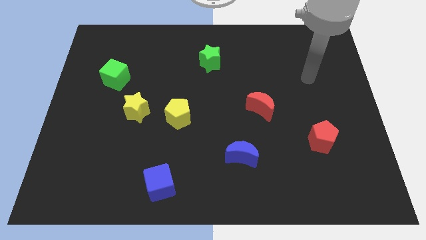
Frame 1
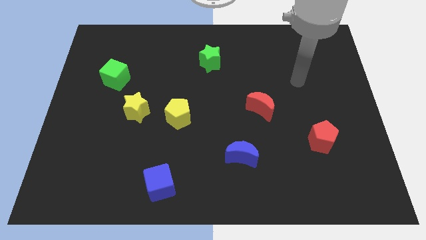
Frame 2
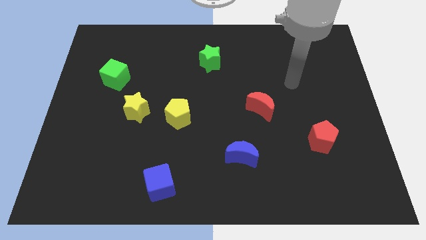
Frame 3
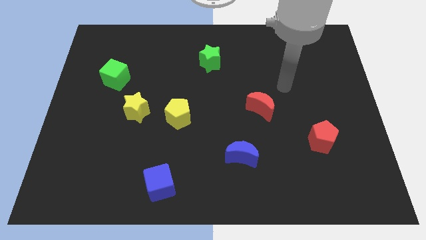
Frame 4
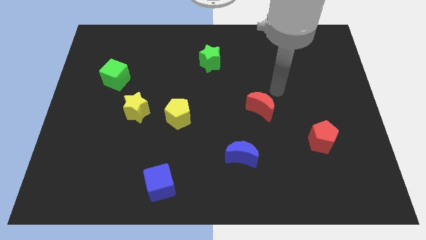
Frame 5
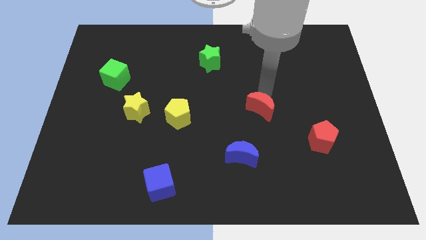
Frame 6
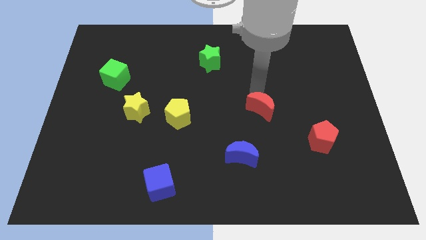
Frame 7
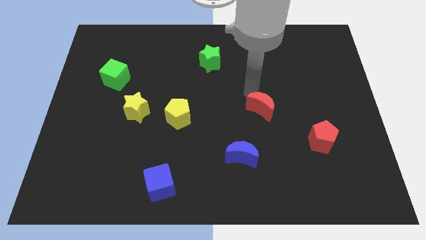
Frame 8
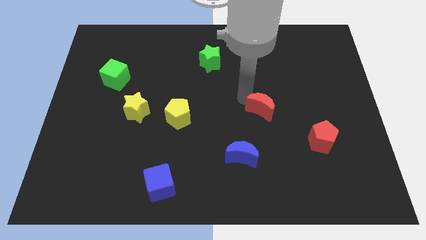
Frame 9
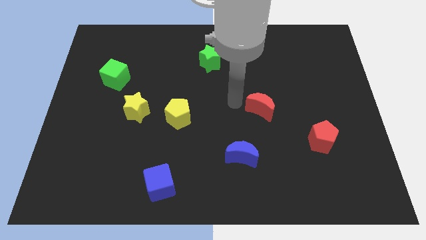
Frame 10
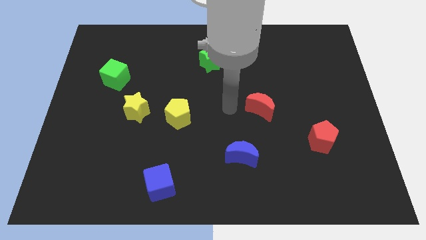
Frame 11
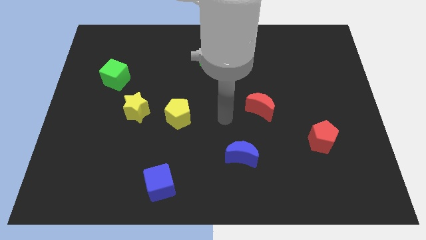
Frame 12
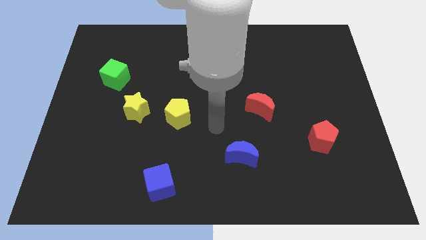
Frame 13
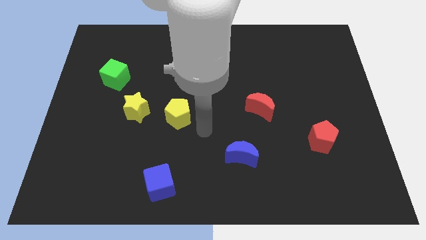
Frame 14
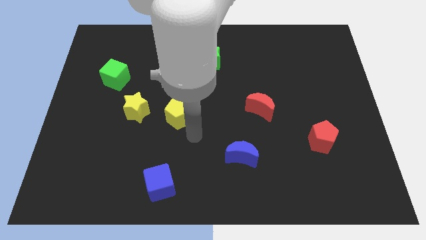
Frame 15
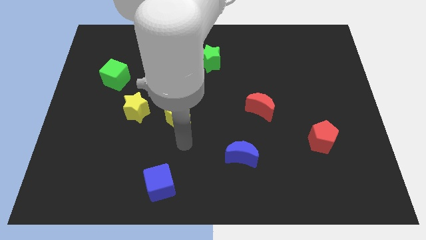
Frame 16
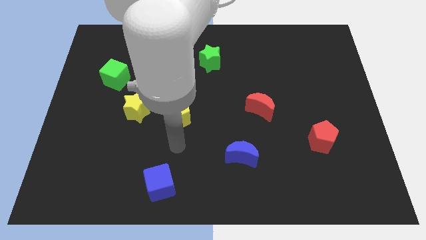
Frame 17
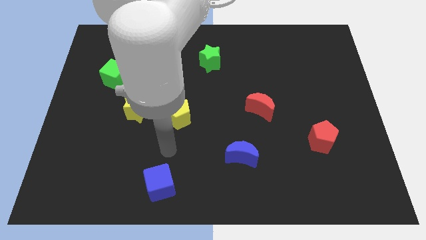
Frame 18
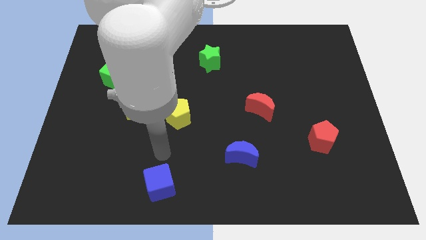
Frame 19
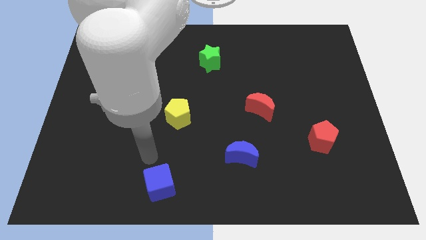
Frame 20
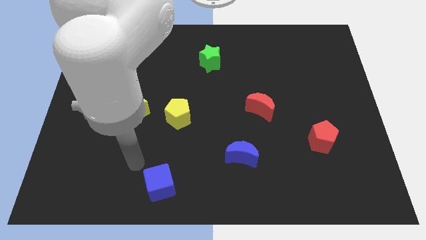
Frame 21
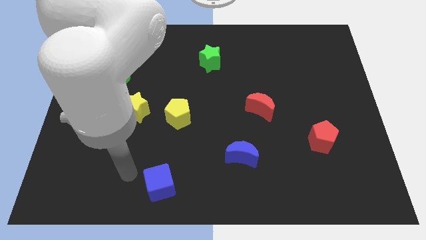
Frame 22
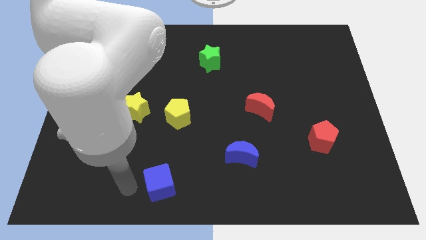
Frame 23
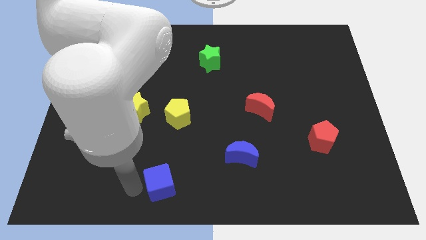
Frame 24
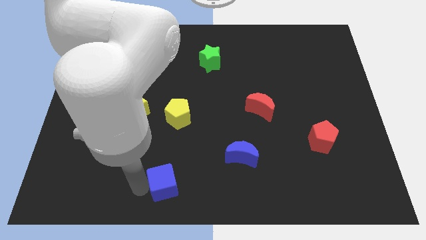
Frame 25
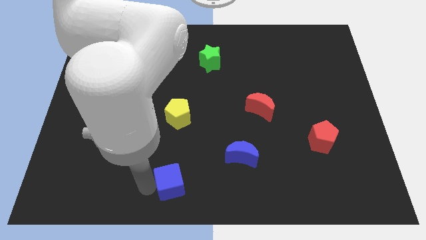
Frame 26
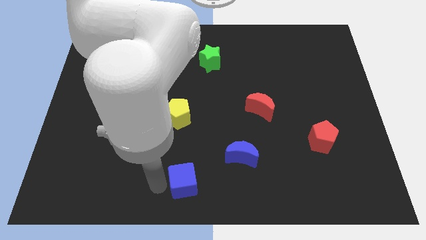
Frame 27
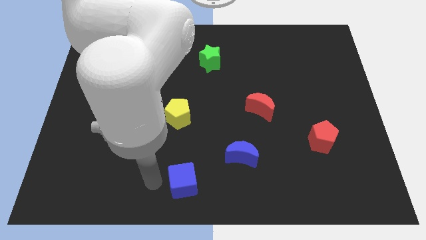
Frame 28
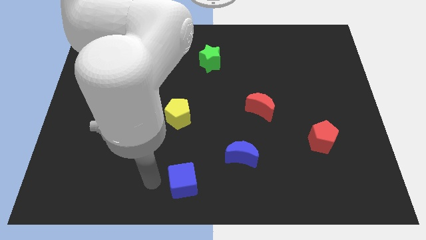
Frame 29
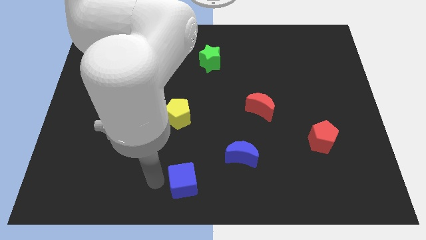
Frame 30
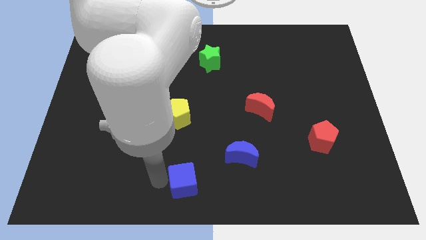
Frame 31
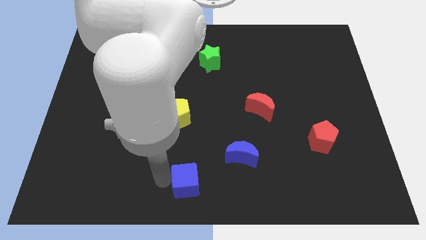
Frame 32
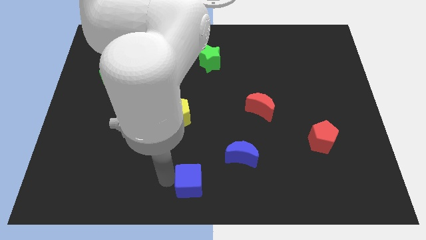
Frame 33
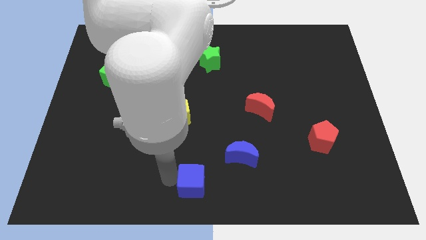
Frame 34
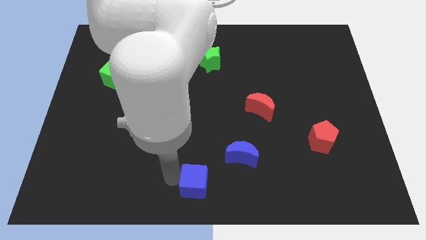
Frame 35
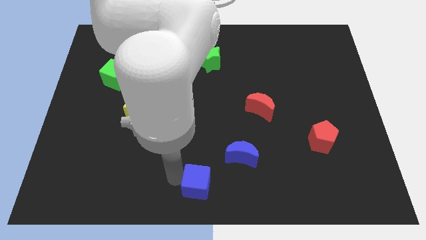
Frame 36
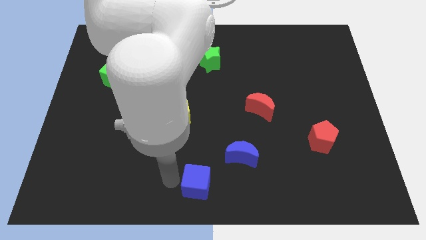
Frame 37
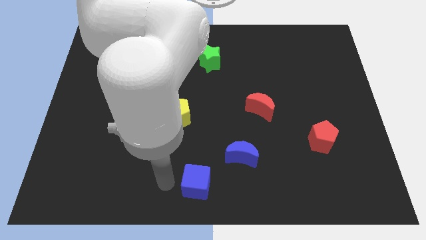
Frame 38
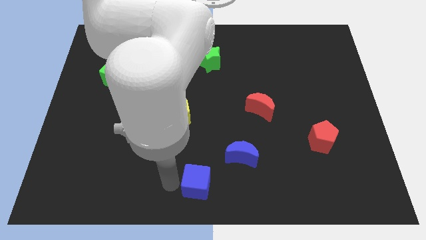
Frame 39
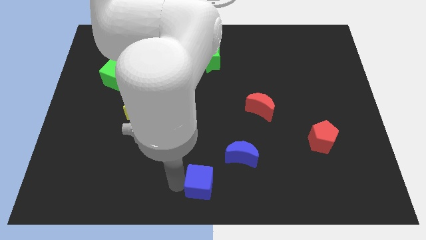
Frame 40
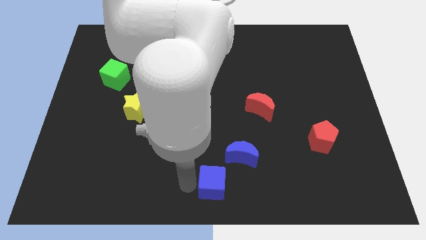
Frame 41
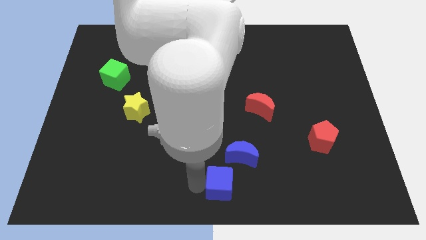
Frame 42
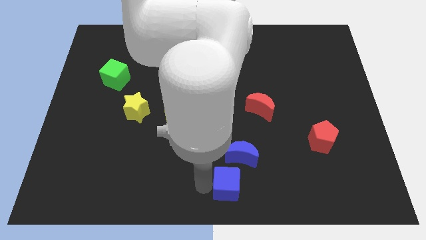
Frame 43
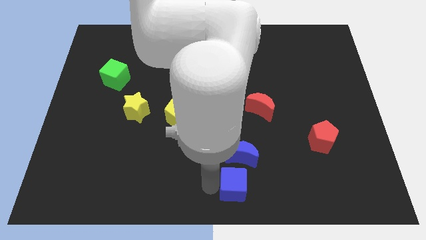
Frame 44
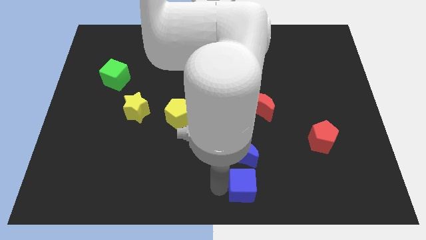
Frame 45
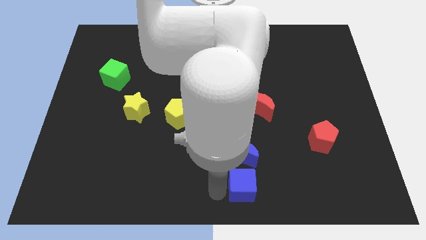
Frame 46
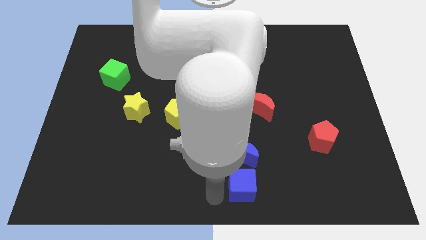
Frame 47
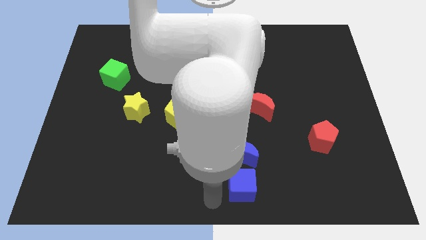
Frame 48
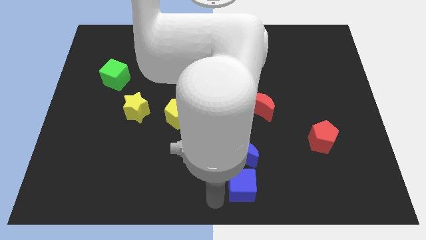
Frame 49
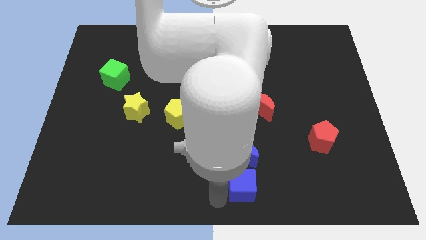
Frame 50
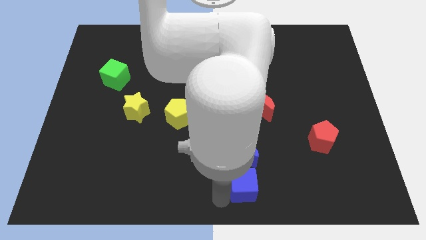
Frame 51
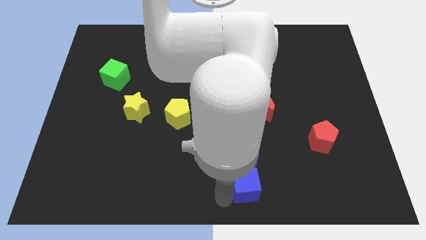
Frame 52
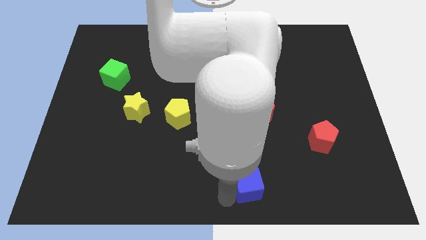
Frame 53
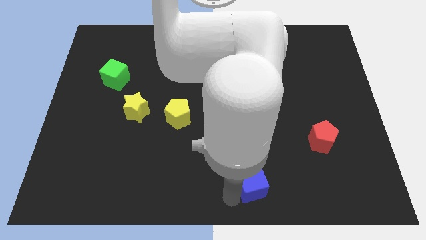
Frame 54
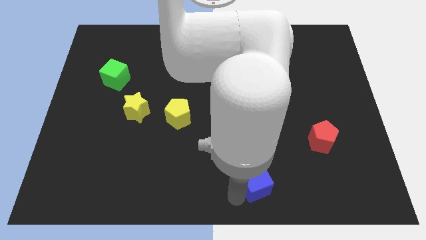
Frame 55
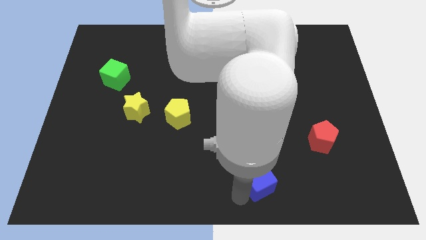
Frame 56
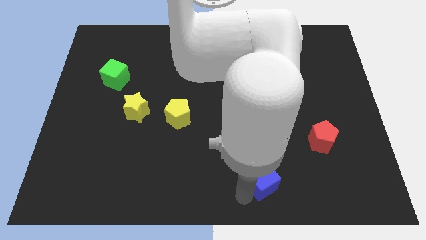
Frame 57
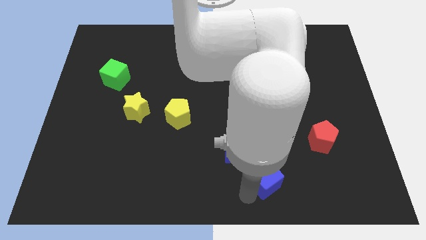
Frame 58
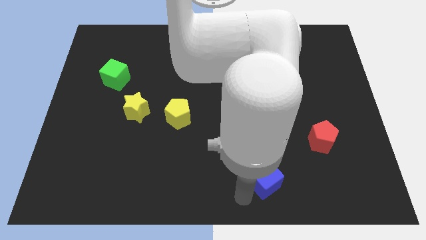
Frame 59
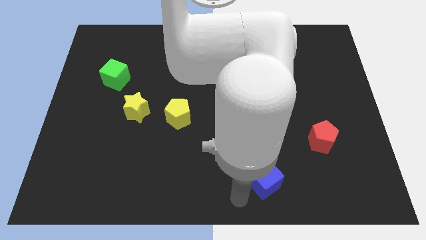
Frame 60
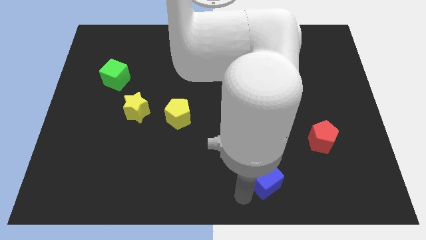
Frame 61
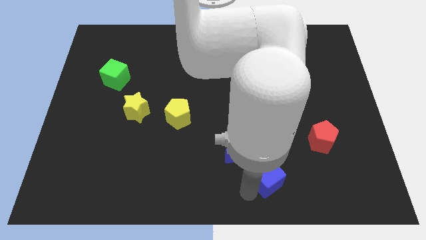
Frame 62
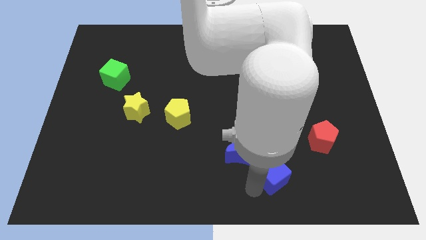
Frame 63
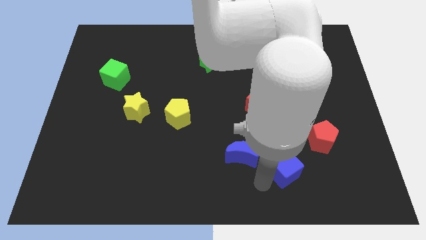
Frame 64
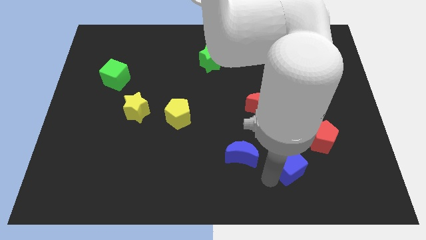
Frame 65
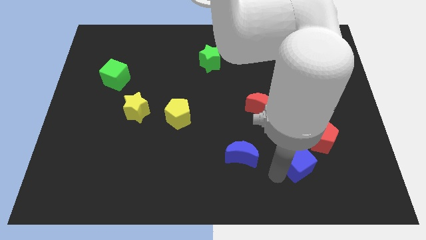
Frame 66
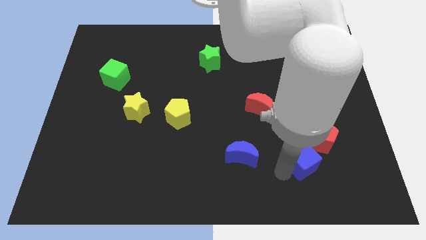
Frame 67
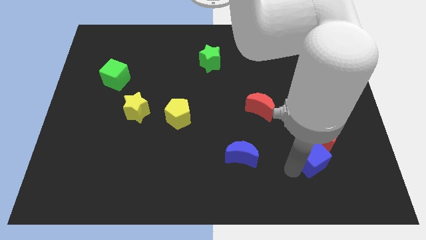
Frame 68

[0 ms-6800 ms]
push the blue cube next to the red pentagon

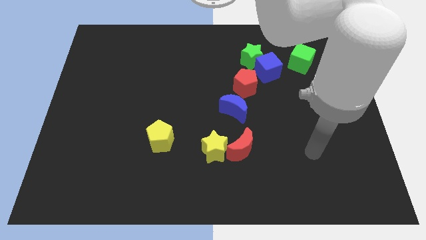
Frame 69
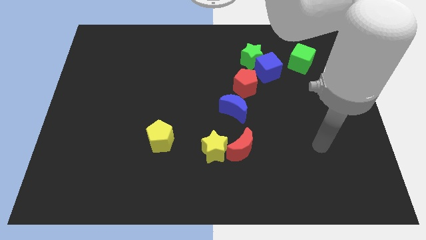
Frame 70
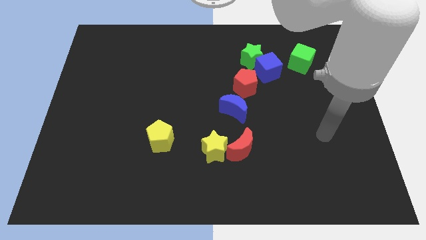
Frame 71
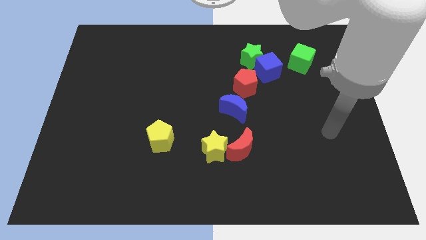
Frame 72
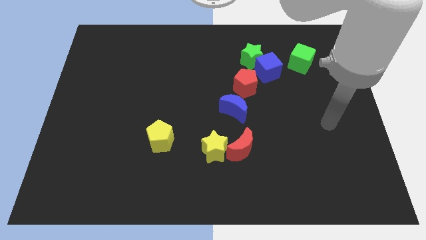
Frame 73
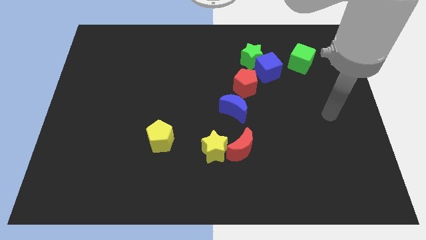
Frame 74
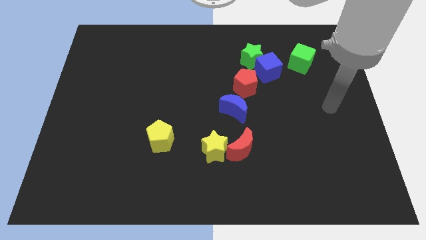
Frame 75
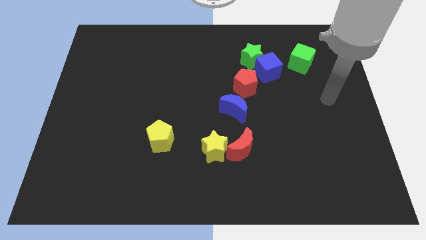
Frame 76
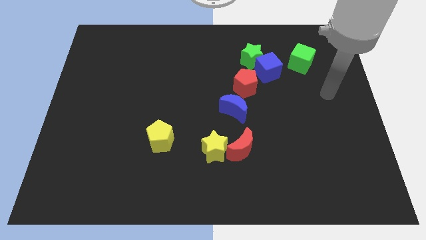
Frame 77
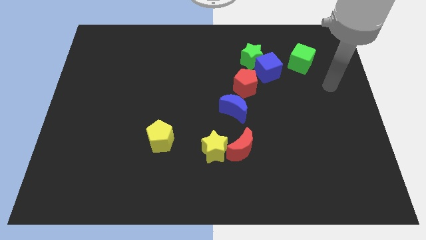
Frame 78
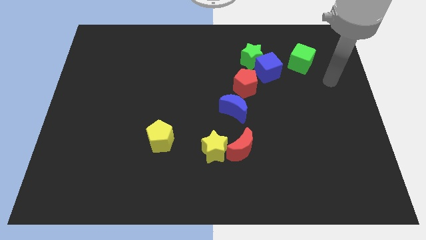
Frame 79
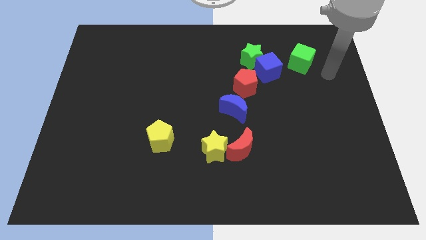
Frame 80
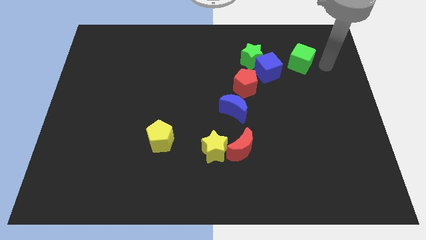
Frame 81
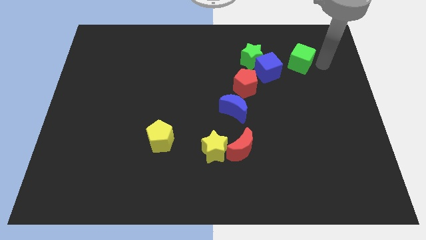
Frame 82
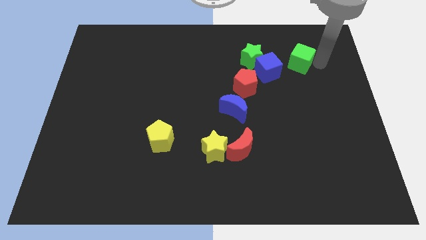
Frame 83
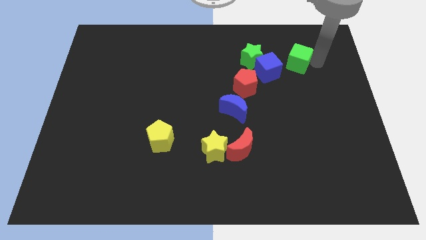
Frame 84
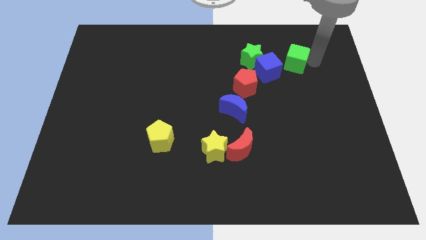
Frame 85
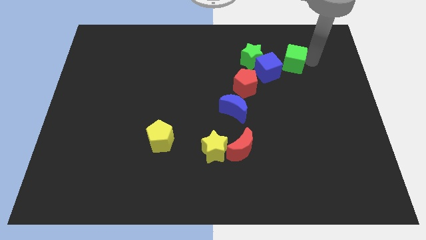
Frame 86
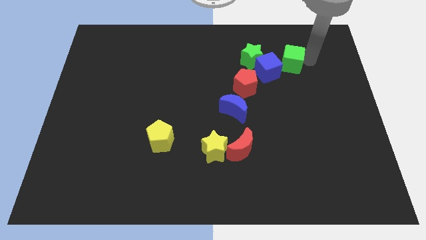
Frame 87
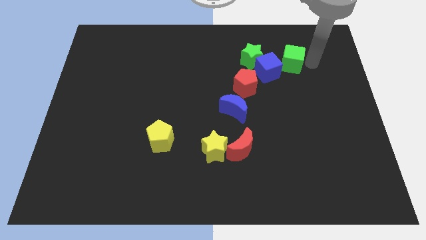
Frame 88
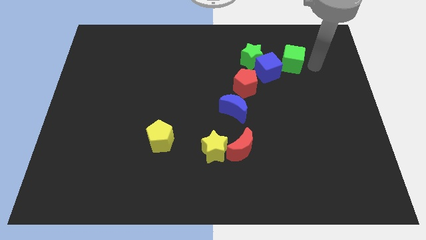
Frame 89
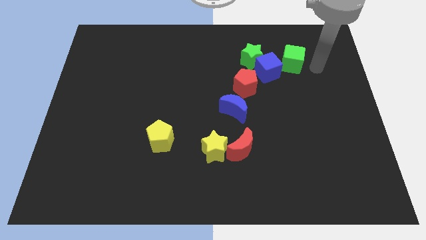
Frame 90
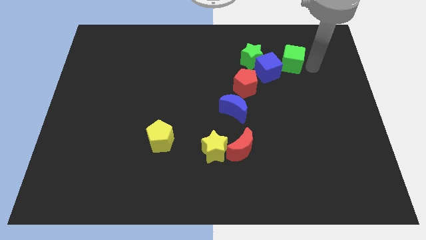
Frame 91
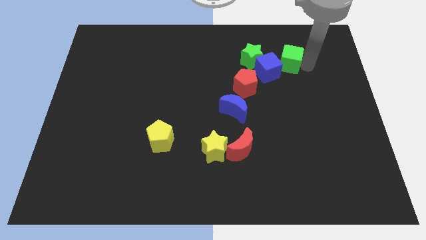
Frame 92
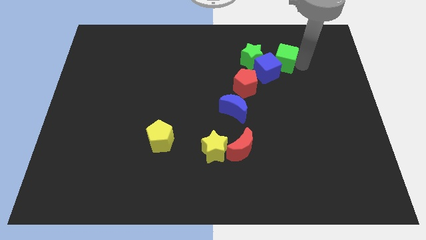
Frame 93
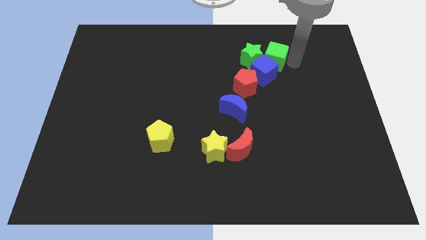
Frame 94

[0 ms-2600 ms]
put the green cube towards the green star
